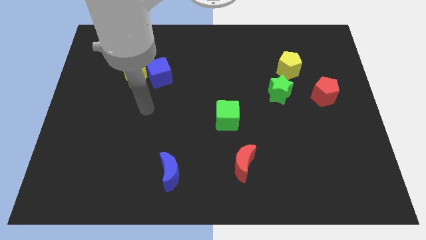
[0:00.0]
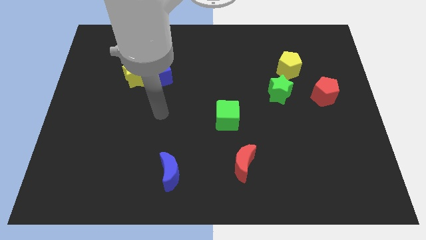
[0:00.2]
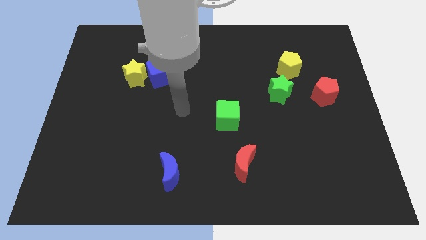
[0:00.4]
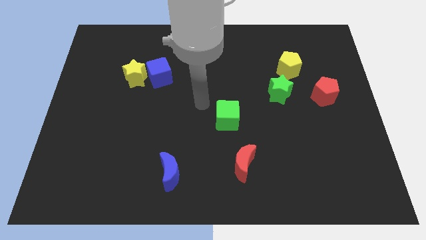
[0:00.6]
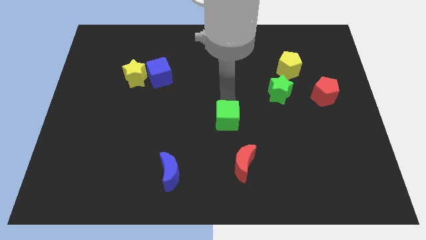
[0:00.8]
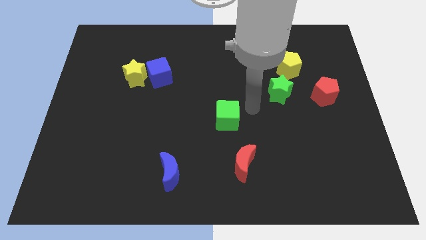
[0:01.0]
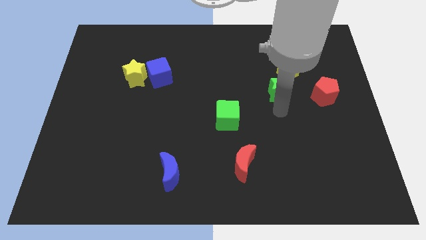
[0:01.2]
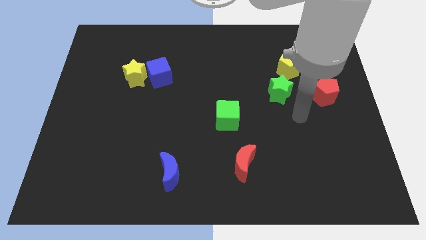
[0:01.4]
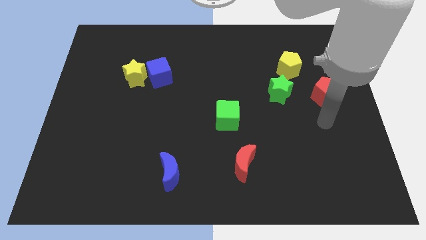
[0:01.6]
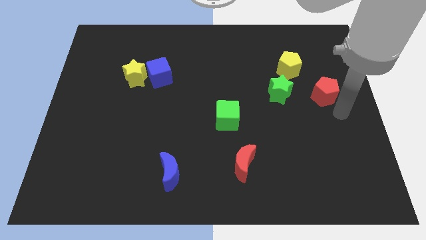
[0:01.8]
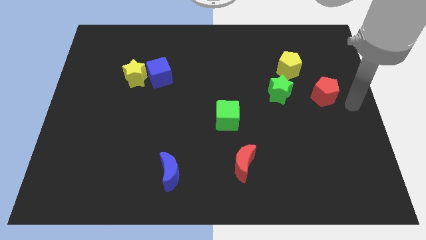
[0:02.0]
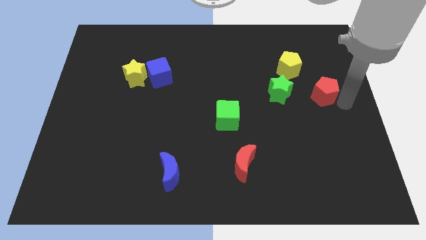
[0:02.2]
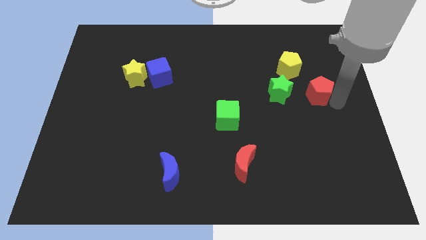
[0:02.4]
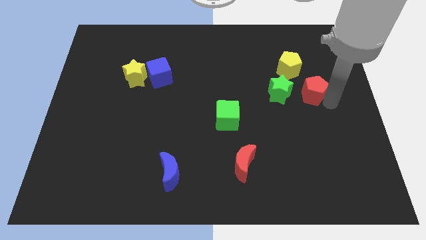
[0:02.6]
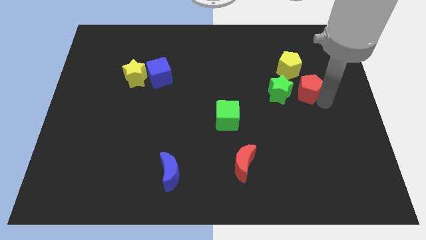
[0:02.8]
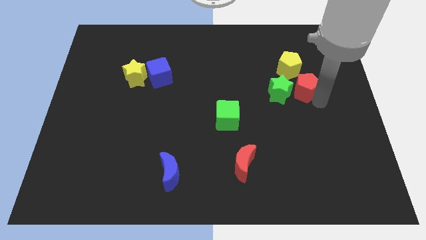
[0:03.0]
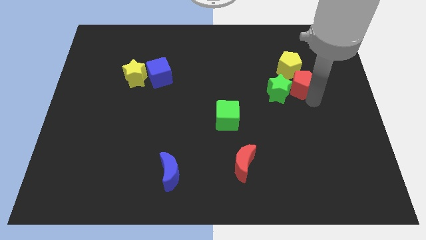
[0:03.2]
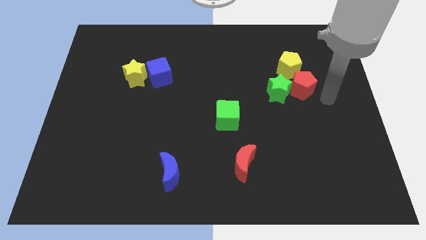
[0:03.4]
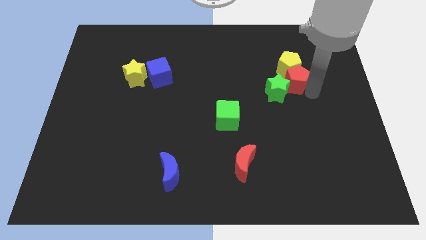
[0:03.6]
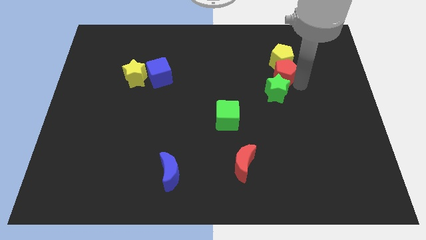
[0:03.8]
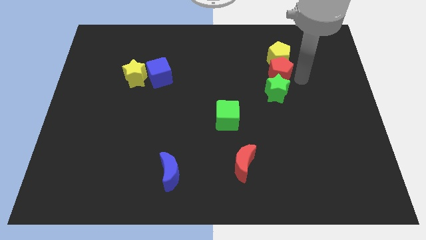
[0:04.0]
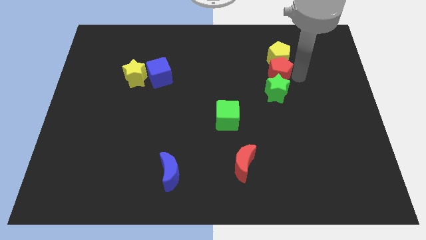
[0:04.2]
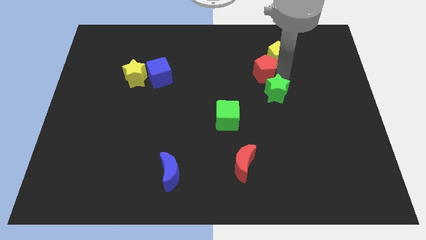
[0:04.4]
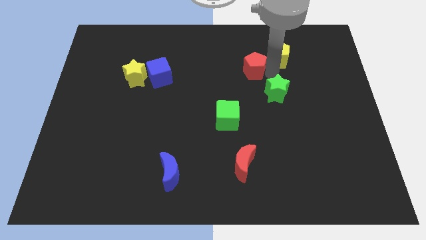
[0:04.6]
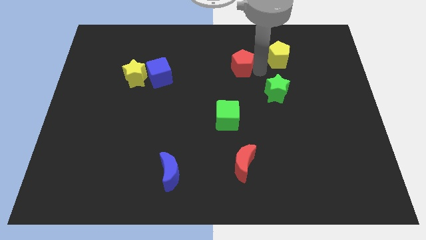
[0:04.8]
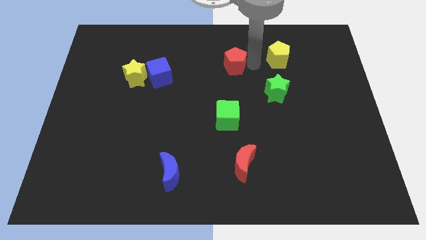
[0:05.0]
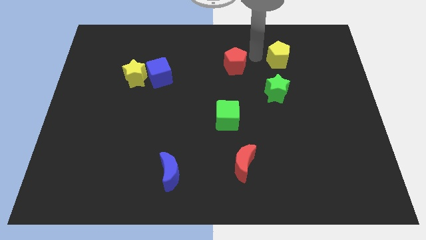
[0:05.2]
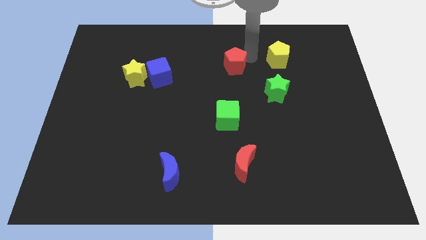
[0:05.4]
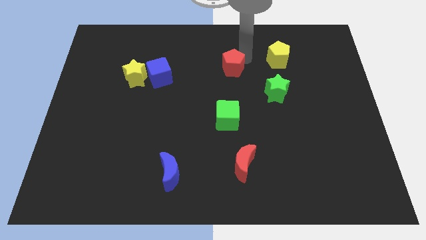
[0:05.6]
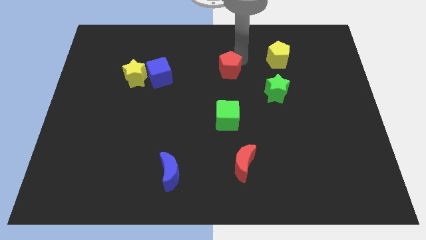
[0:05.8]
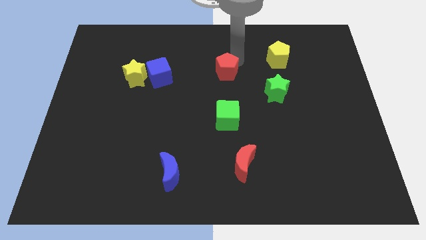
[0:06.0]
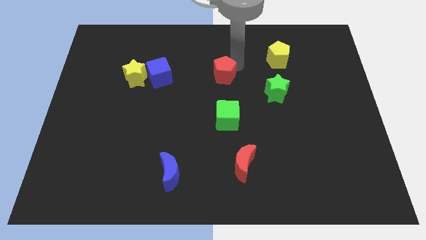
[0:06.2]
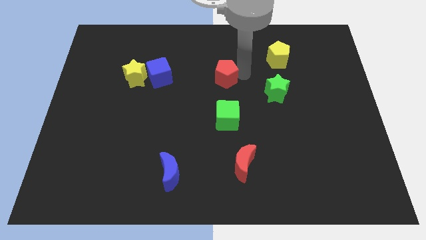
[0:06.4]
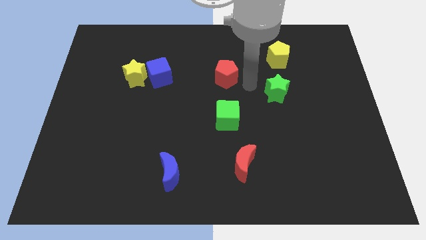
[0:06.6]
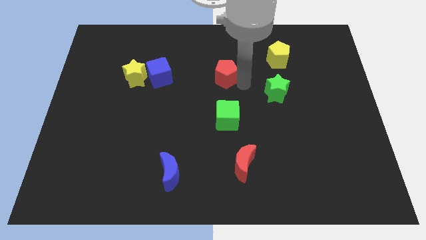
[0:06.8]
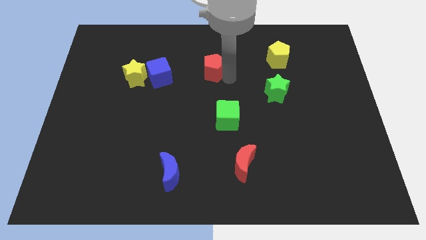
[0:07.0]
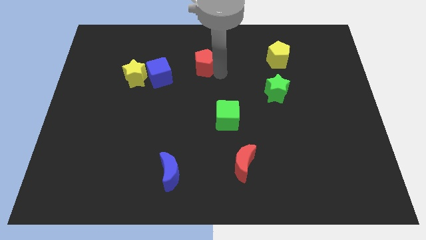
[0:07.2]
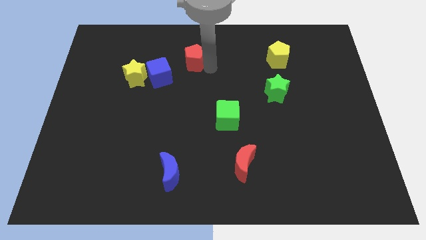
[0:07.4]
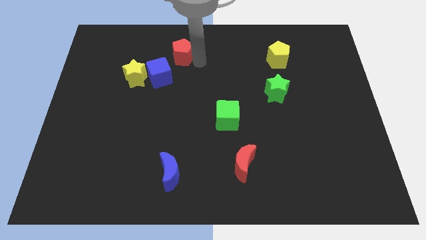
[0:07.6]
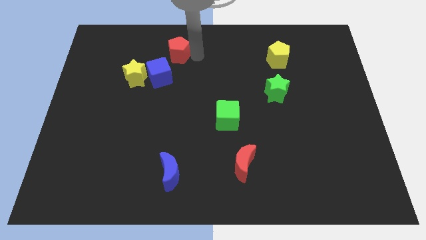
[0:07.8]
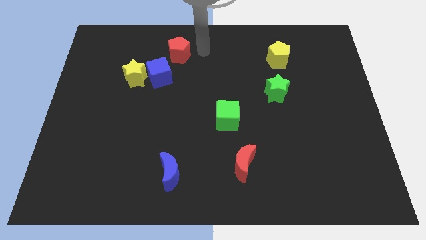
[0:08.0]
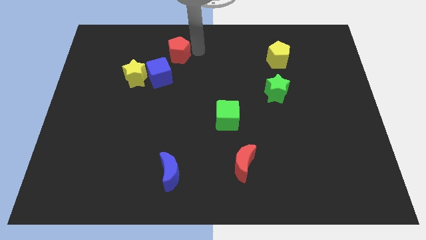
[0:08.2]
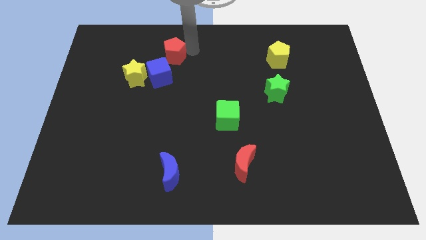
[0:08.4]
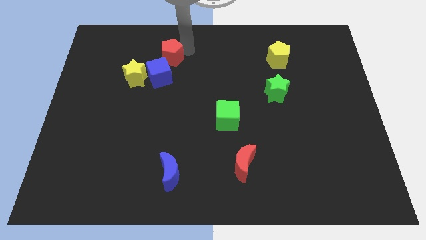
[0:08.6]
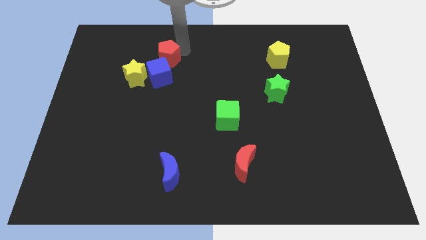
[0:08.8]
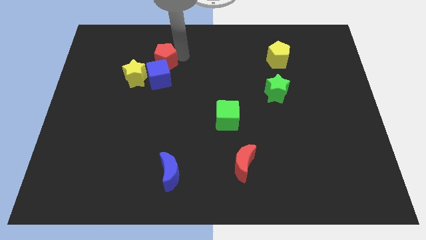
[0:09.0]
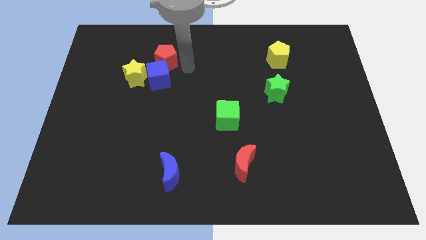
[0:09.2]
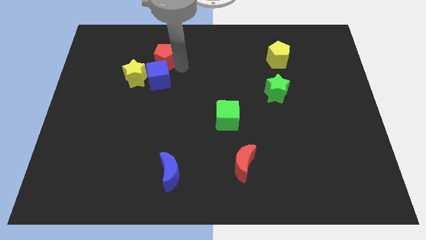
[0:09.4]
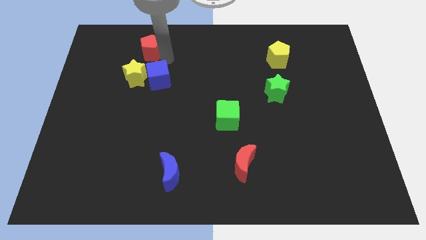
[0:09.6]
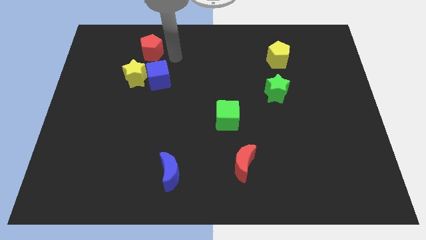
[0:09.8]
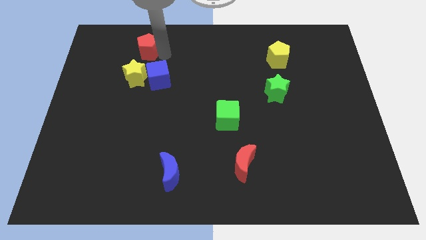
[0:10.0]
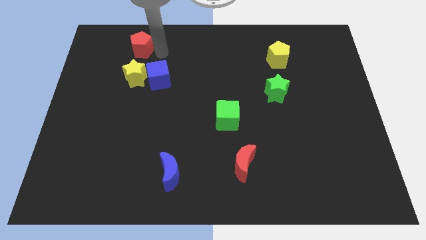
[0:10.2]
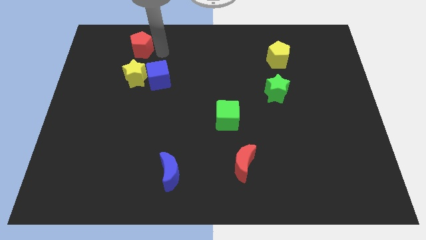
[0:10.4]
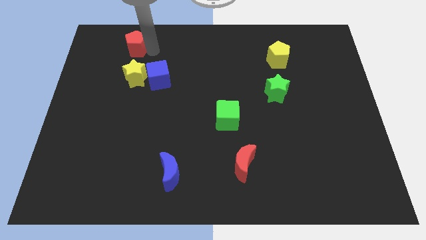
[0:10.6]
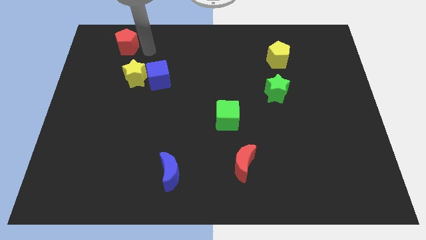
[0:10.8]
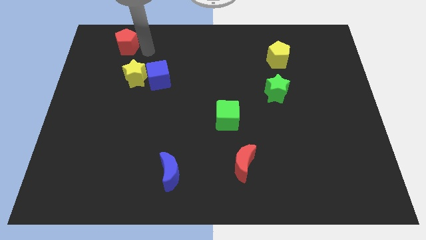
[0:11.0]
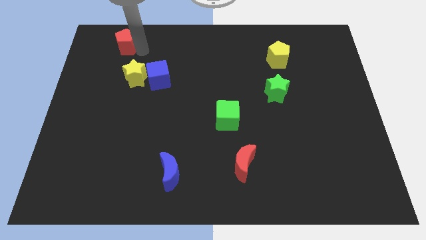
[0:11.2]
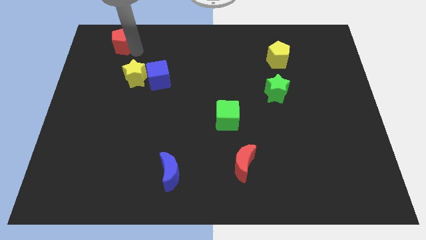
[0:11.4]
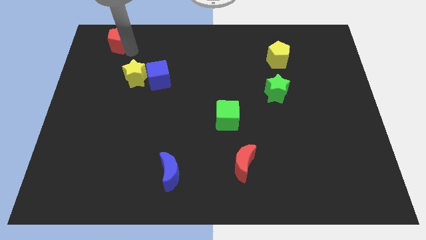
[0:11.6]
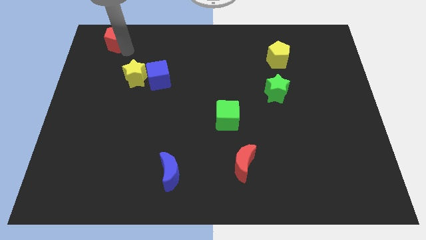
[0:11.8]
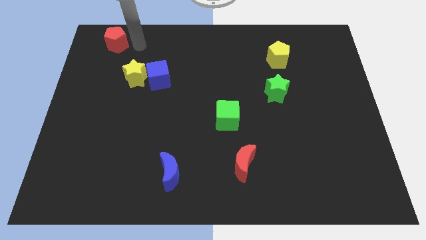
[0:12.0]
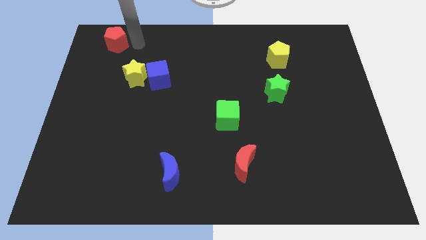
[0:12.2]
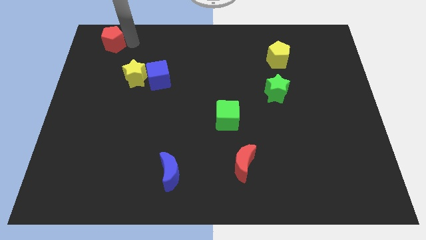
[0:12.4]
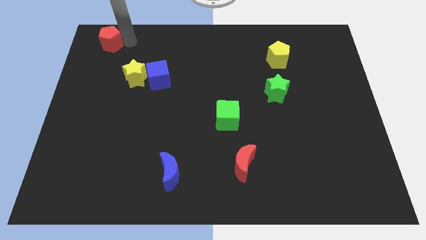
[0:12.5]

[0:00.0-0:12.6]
push the red pentagon to the top left of the board
